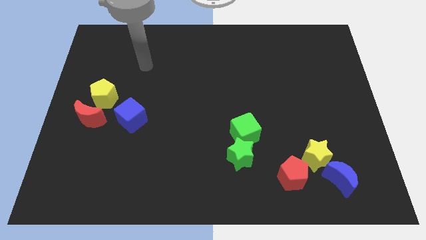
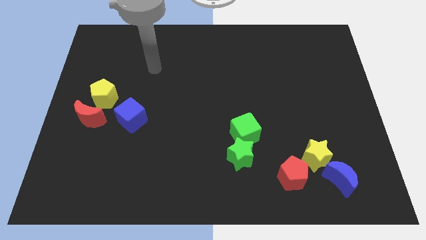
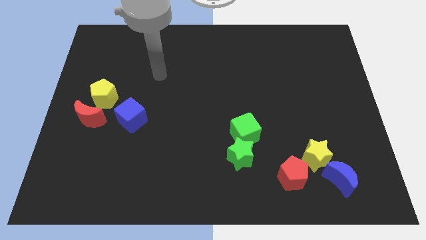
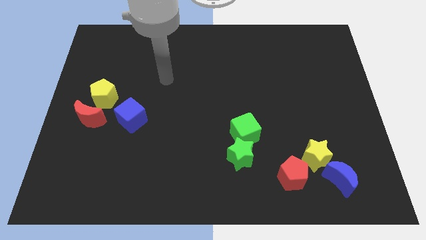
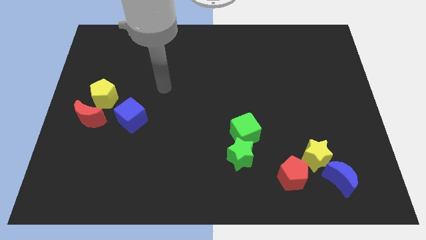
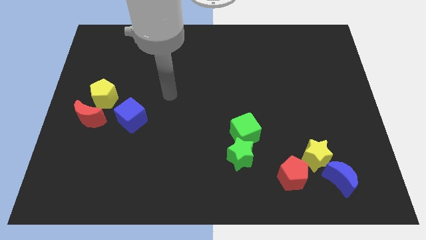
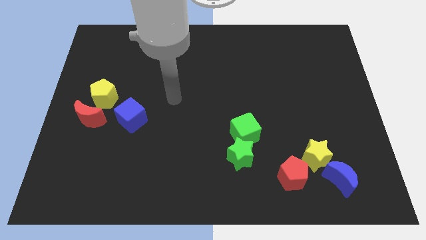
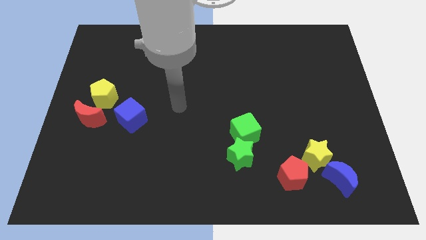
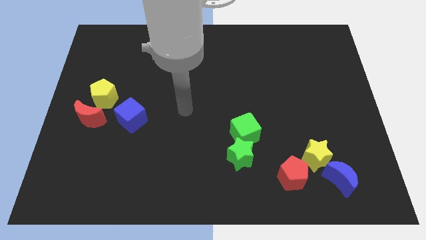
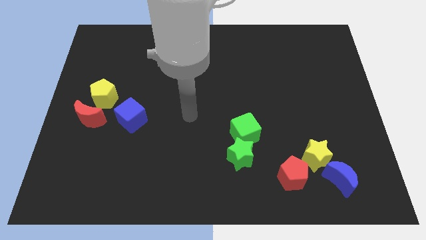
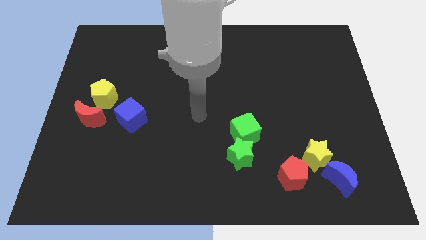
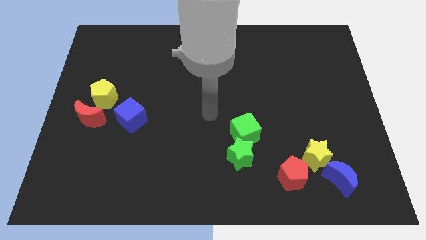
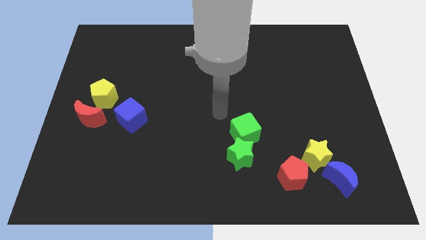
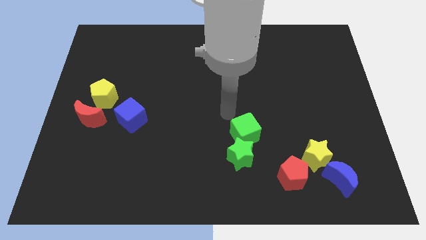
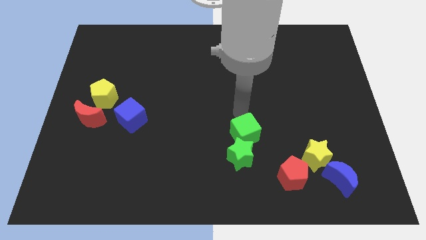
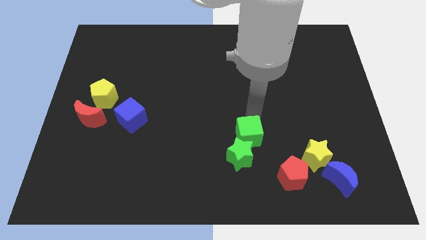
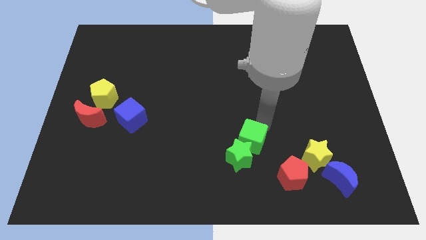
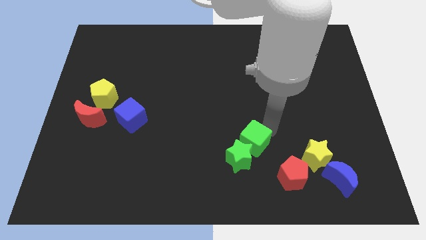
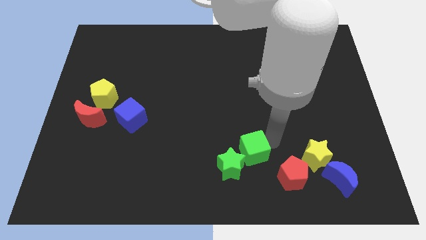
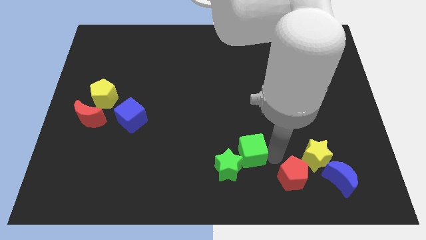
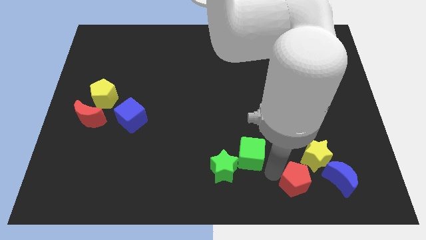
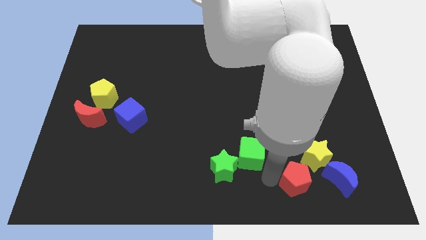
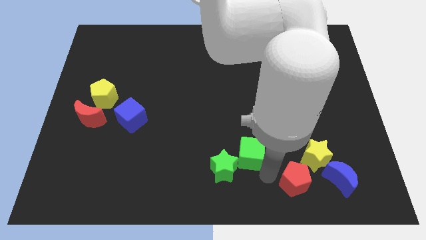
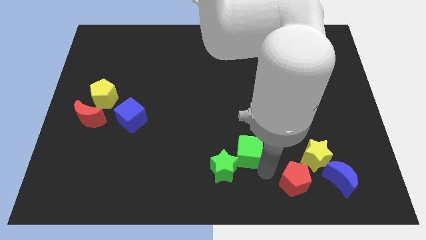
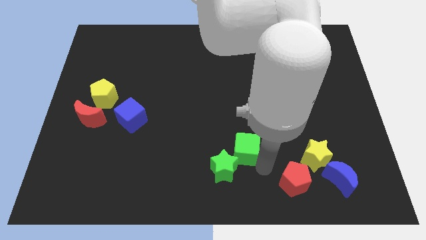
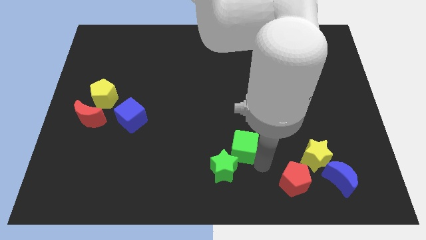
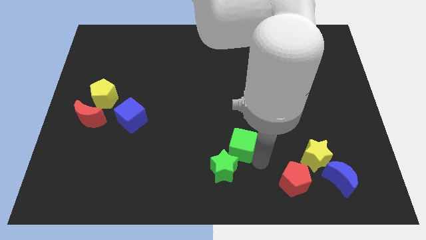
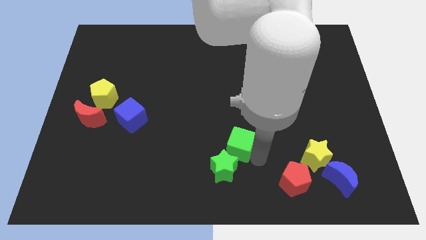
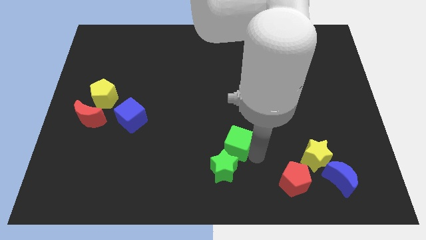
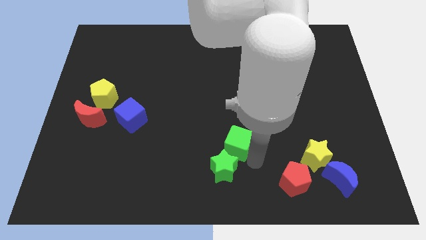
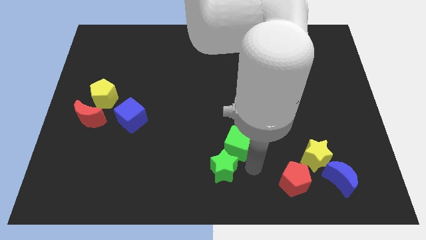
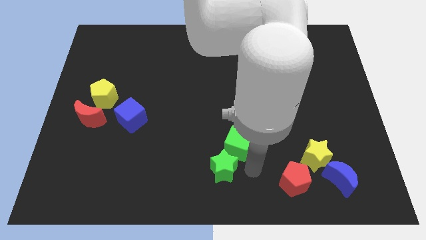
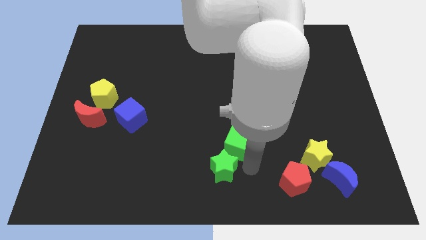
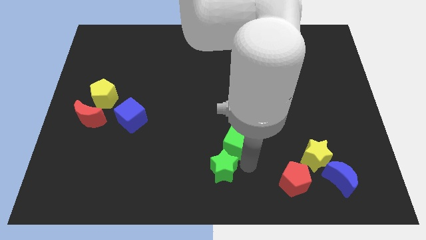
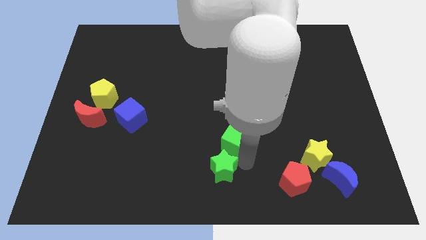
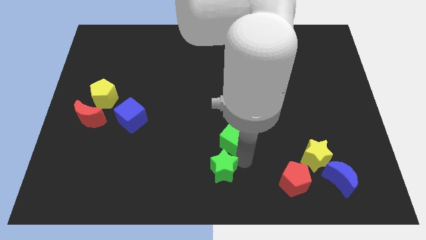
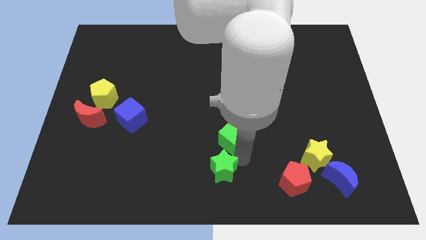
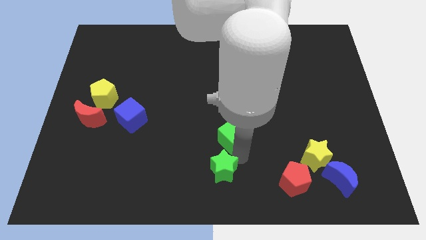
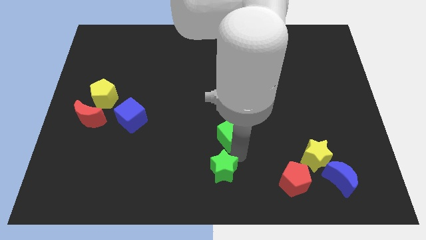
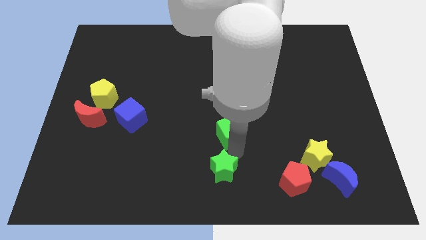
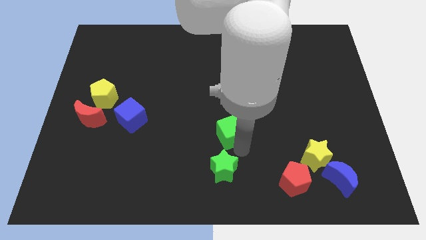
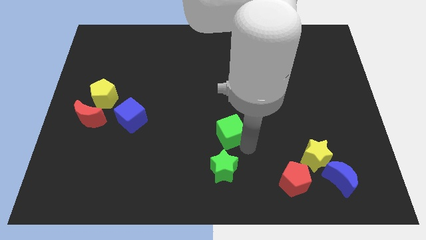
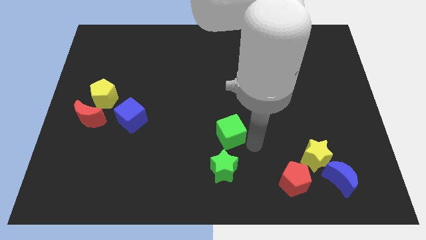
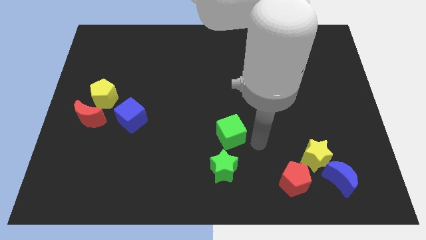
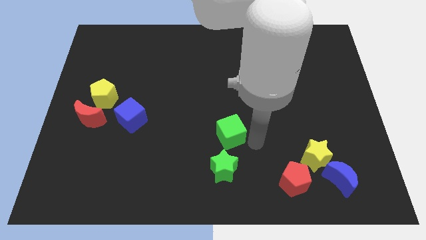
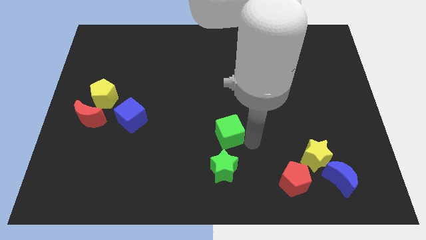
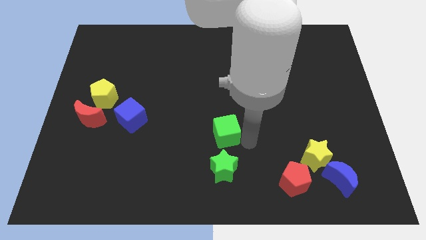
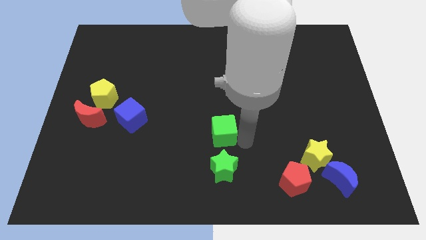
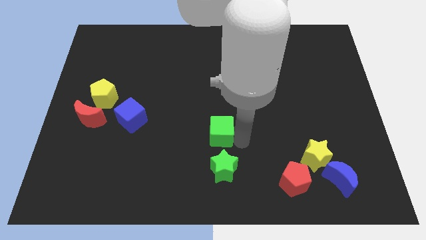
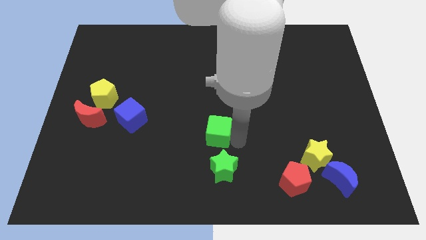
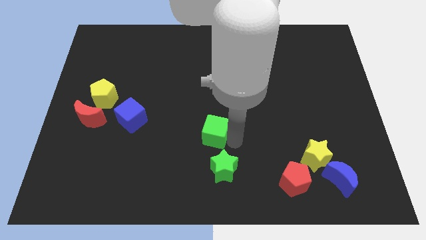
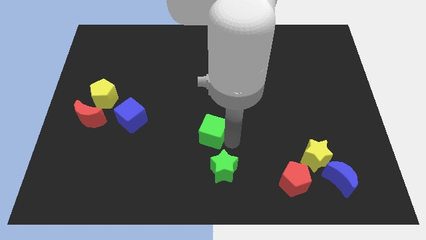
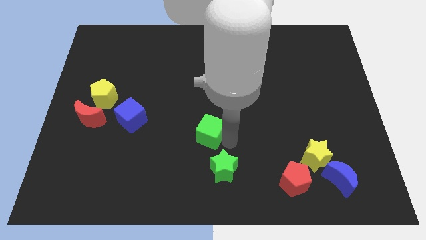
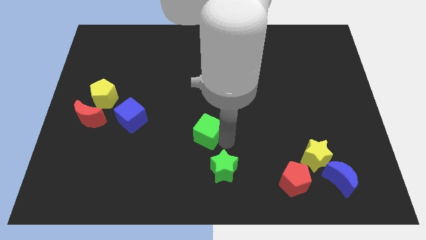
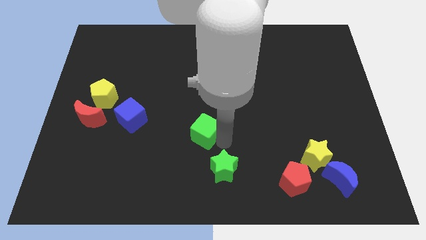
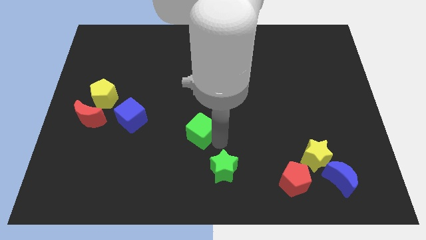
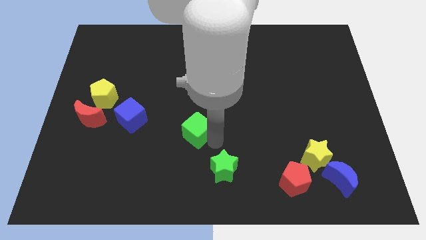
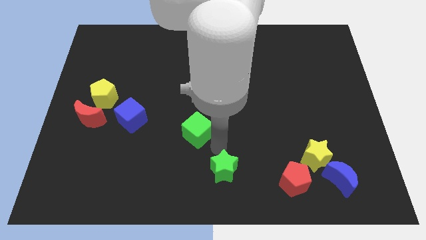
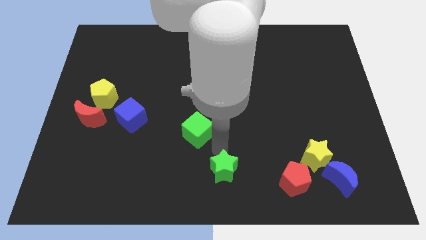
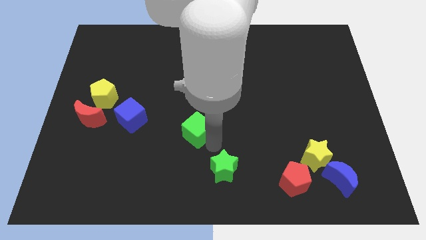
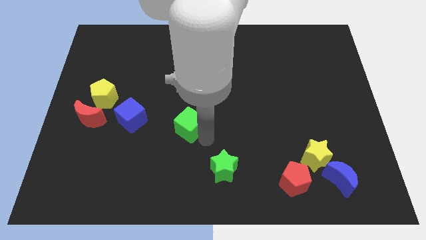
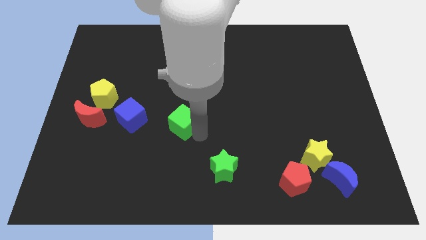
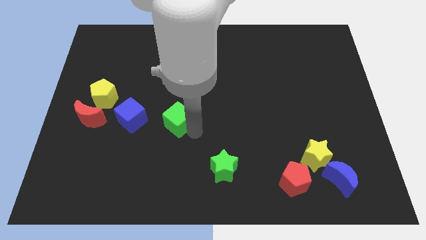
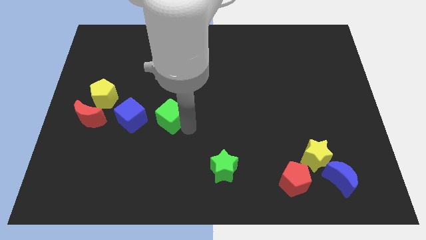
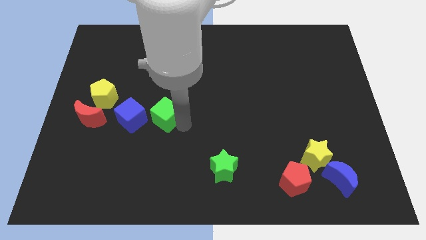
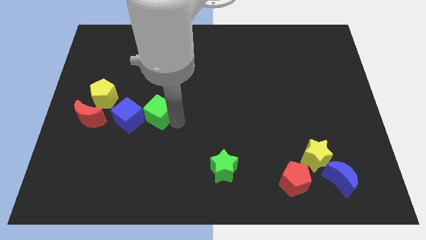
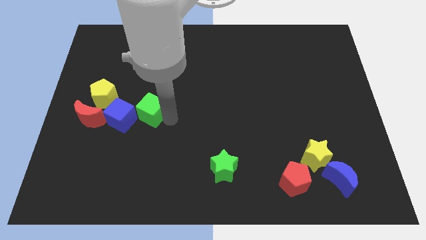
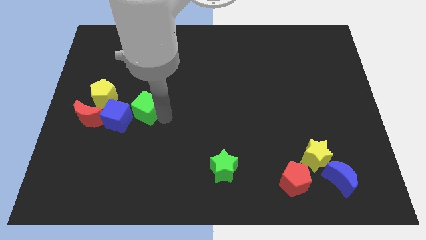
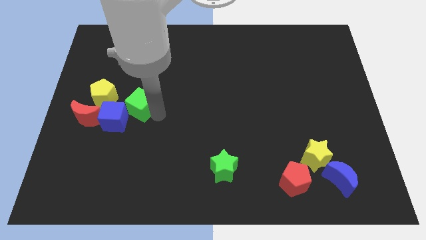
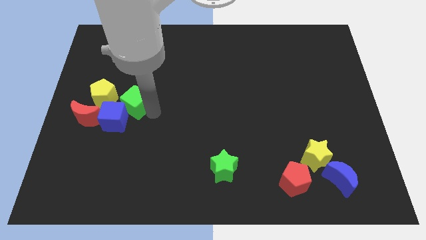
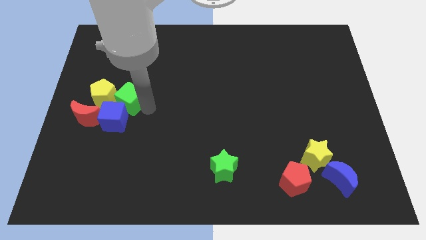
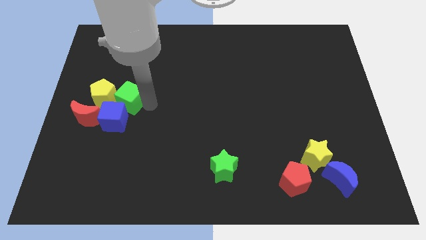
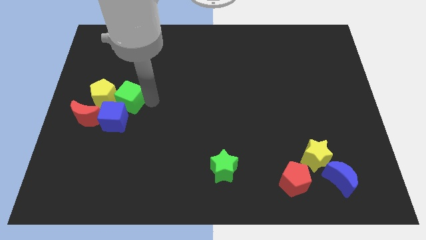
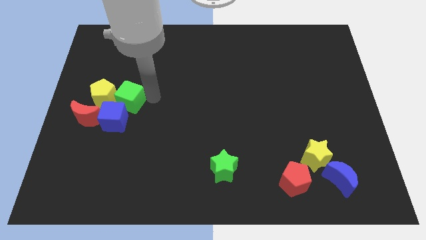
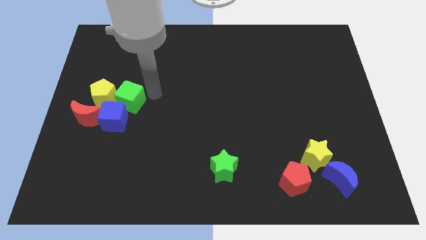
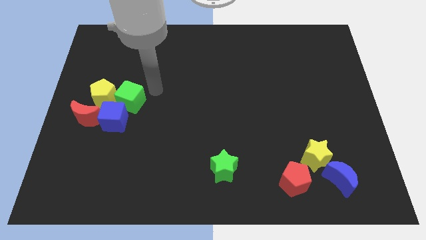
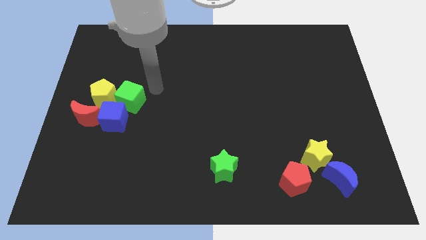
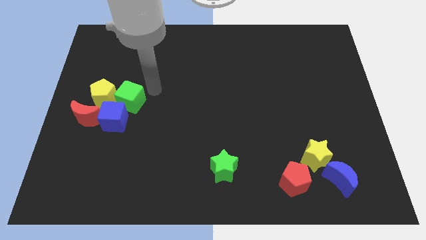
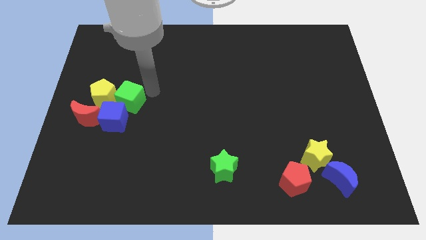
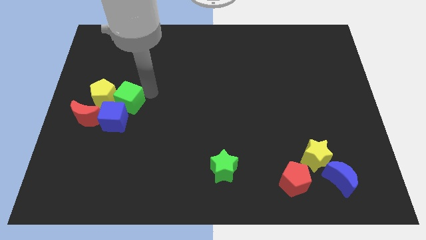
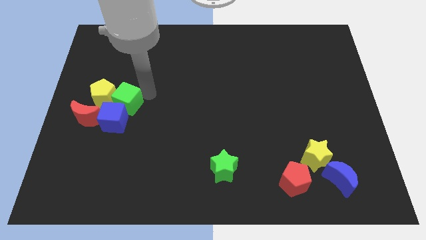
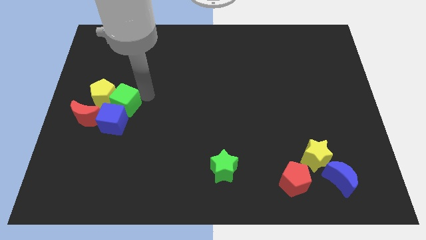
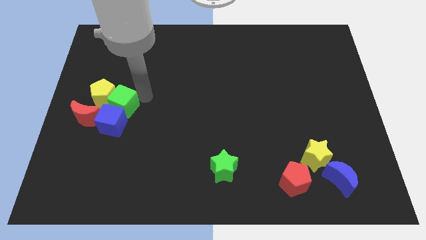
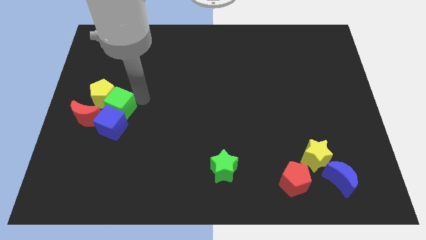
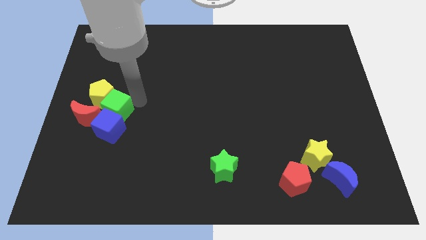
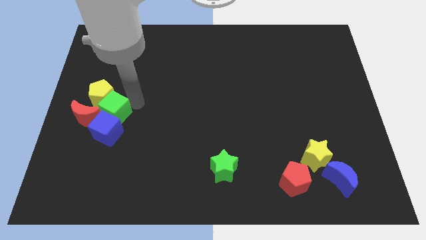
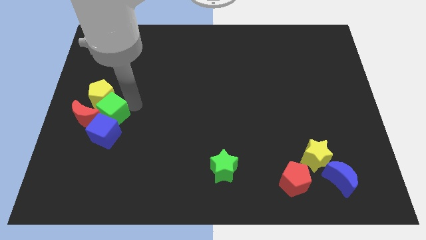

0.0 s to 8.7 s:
move the green cube close to the red moon
